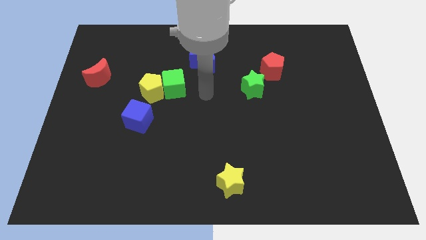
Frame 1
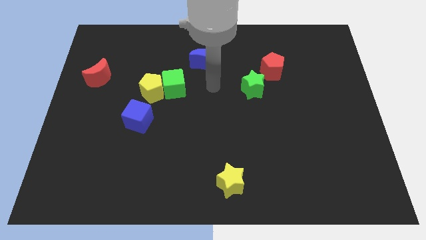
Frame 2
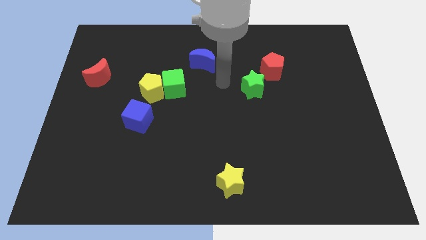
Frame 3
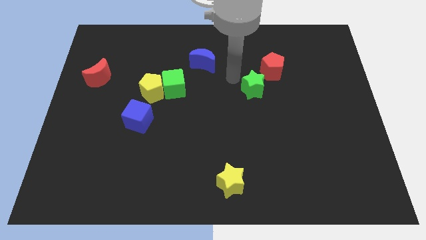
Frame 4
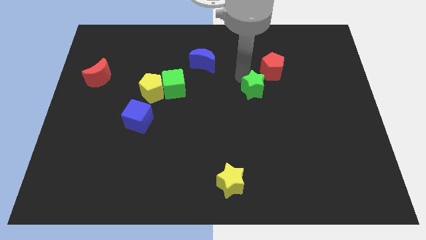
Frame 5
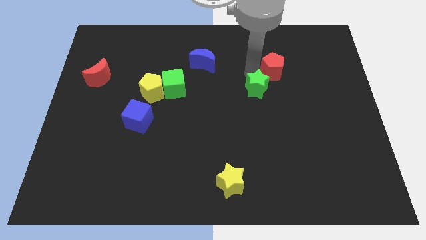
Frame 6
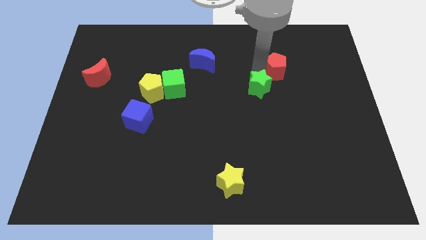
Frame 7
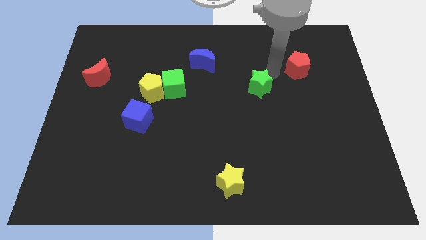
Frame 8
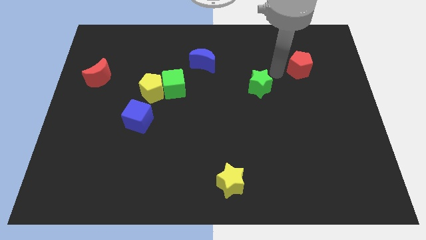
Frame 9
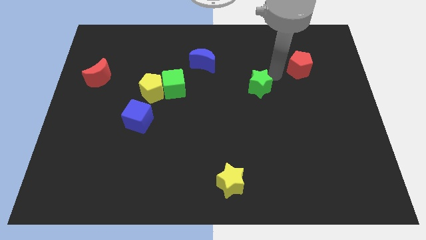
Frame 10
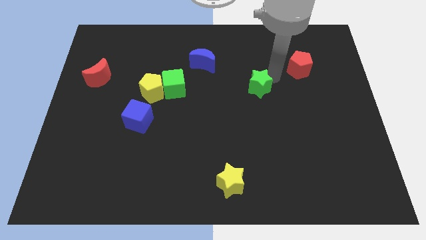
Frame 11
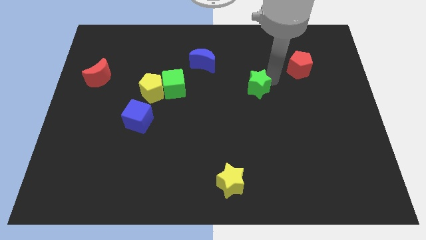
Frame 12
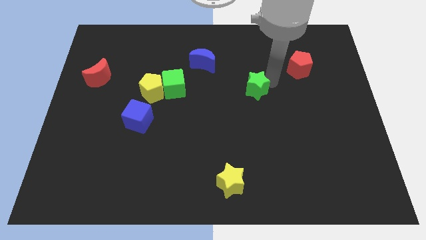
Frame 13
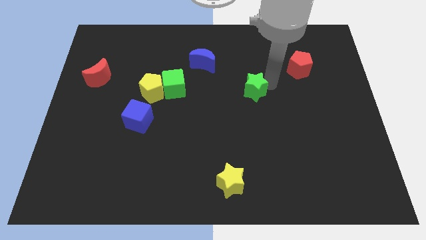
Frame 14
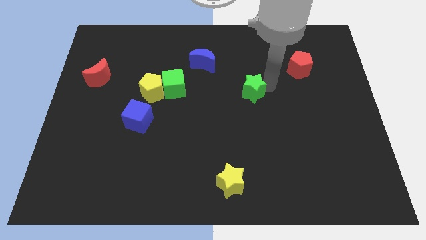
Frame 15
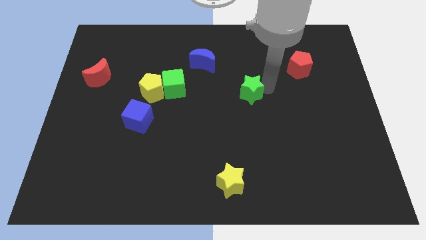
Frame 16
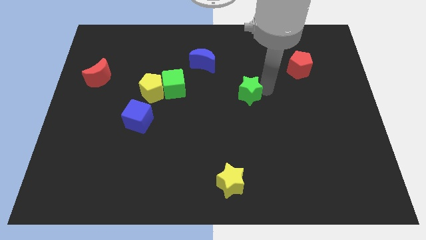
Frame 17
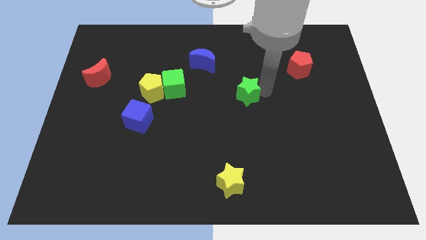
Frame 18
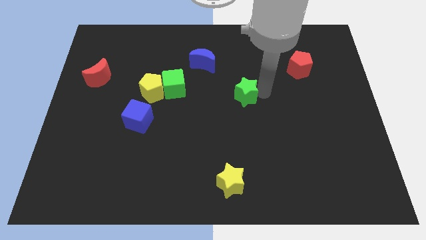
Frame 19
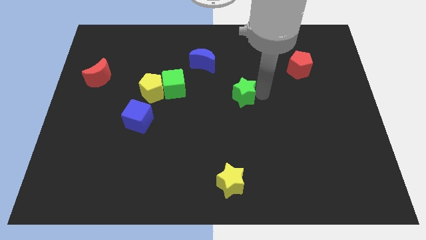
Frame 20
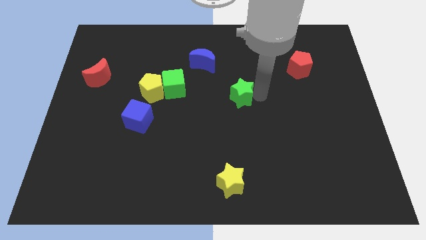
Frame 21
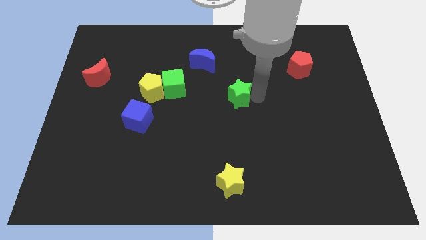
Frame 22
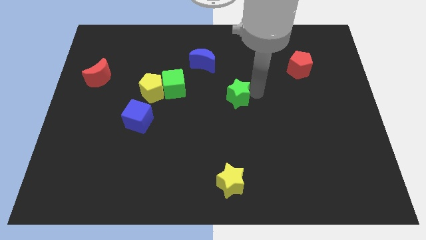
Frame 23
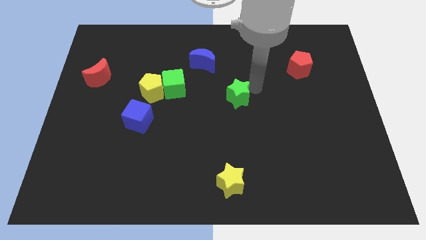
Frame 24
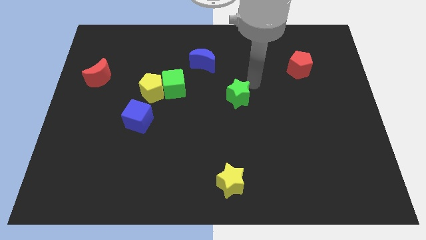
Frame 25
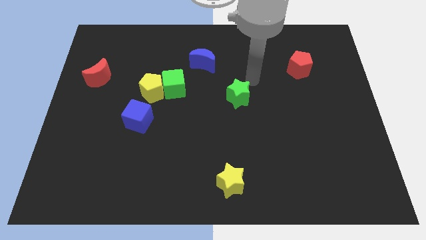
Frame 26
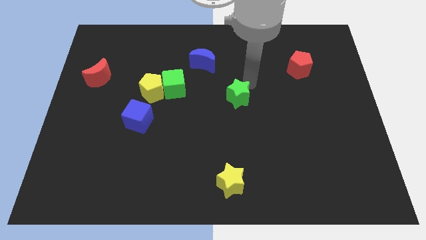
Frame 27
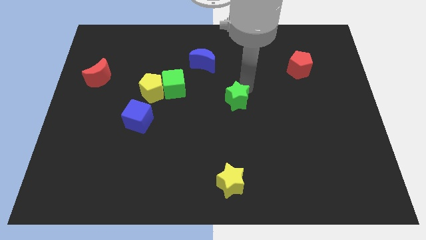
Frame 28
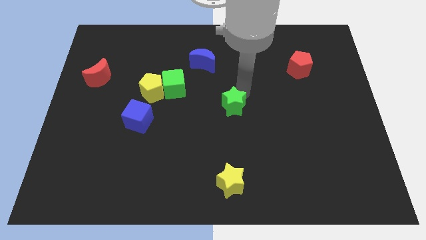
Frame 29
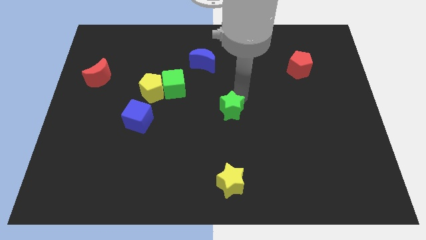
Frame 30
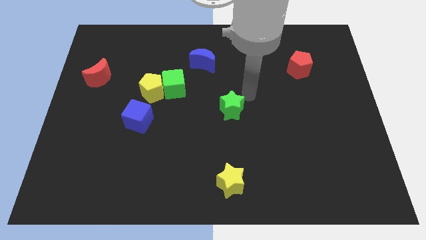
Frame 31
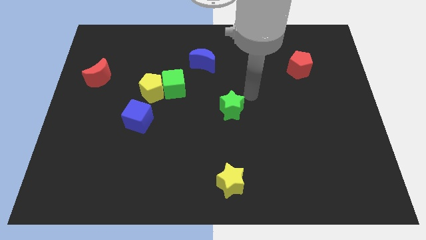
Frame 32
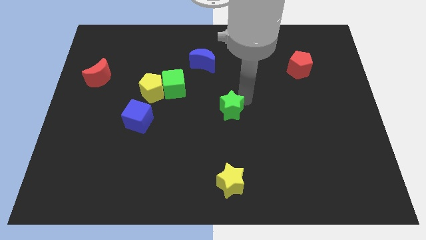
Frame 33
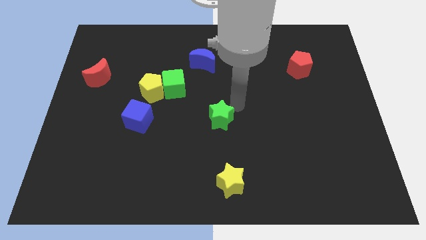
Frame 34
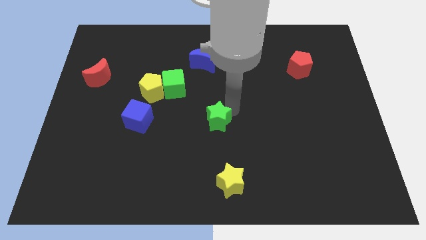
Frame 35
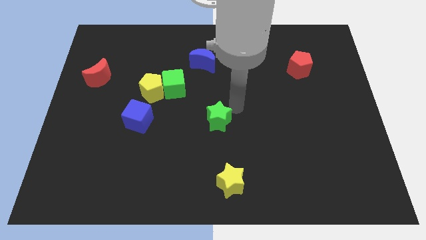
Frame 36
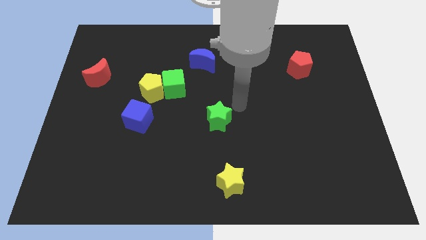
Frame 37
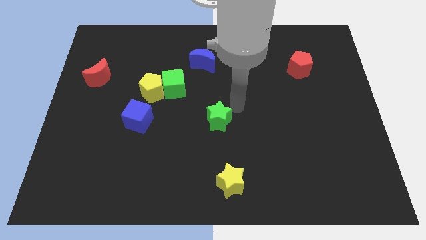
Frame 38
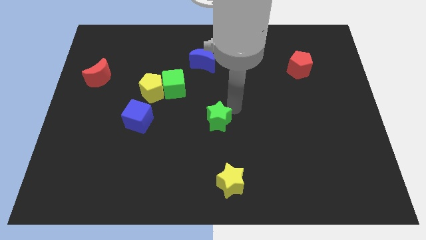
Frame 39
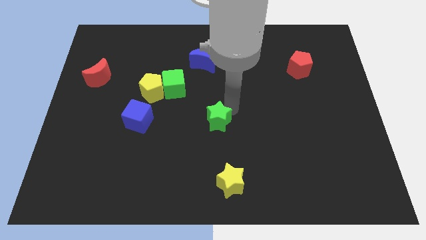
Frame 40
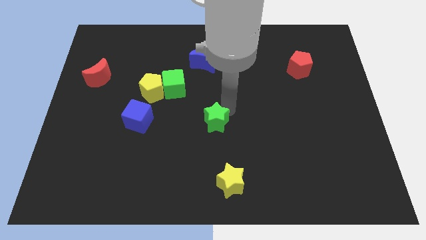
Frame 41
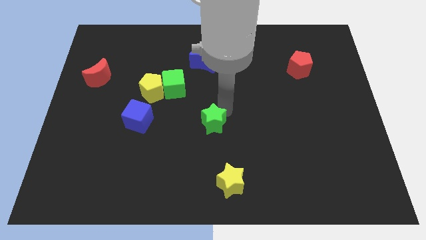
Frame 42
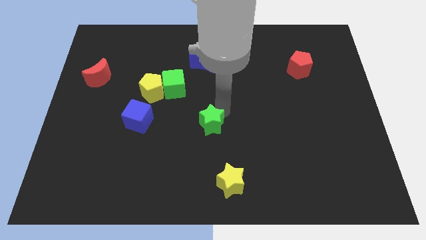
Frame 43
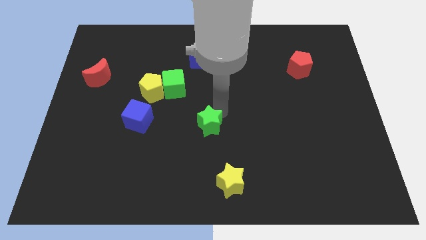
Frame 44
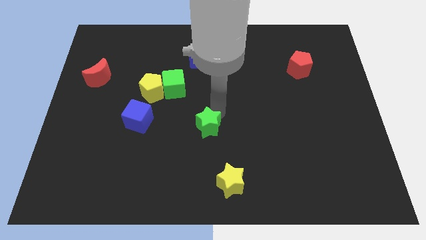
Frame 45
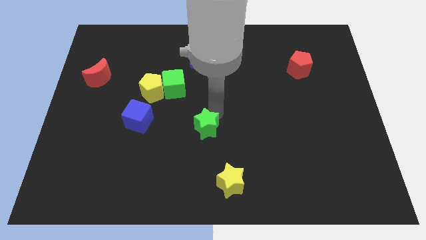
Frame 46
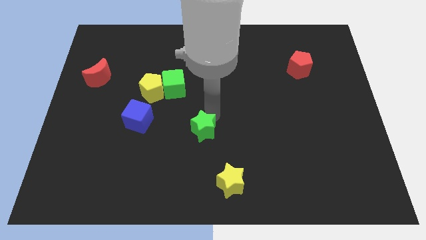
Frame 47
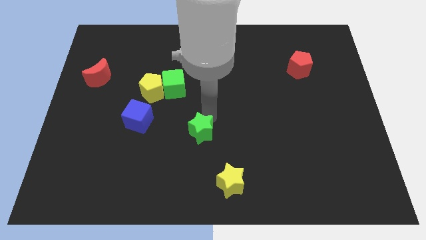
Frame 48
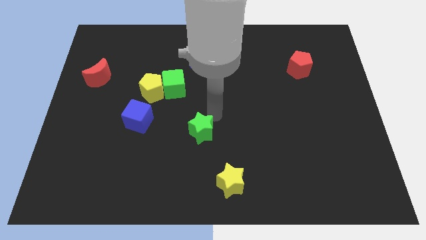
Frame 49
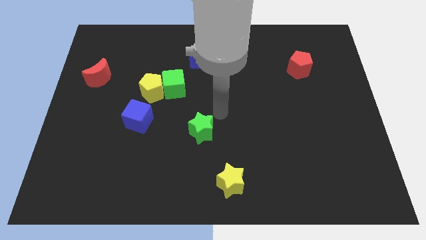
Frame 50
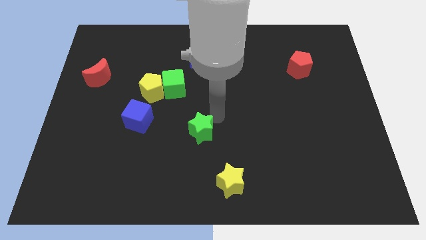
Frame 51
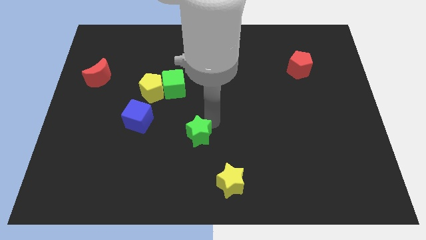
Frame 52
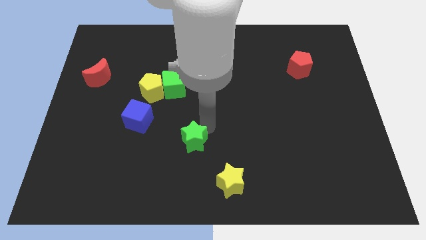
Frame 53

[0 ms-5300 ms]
push the green star downwards and then left

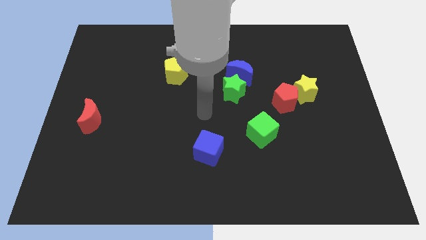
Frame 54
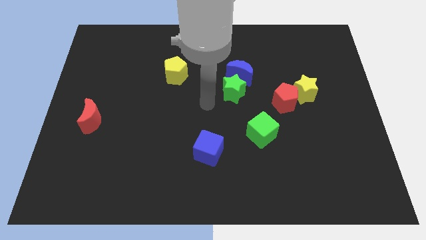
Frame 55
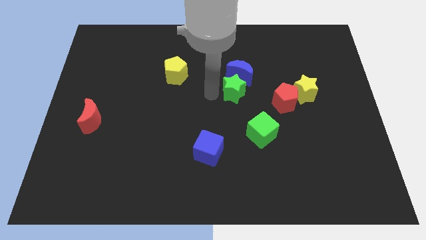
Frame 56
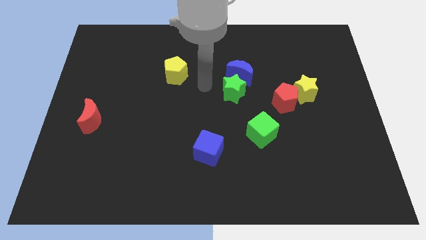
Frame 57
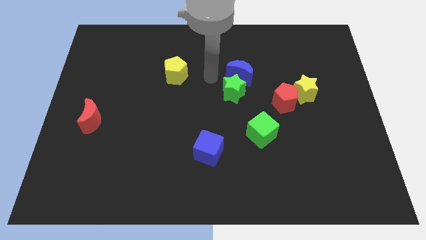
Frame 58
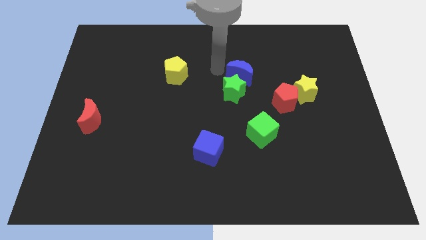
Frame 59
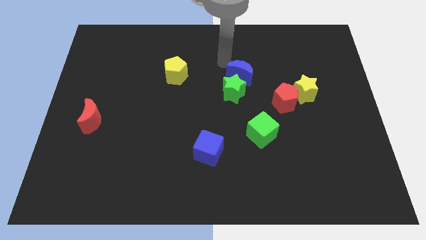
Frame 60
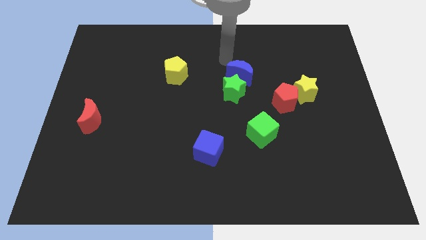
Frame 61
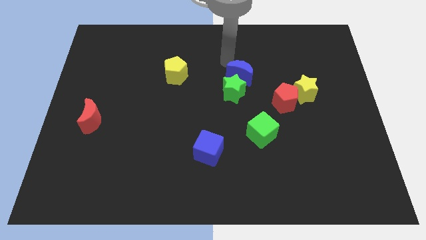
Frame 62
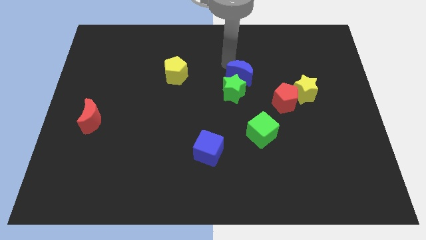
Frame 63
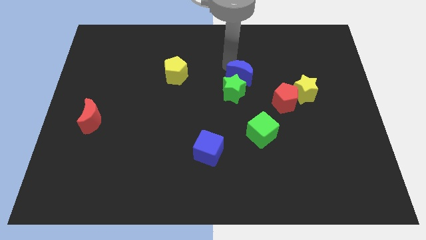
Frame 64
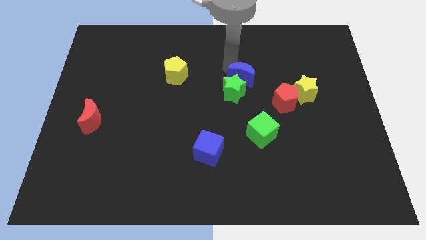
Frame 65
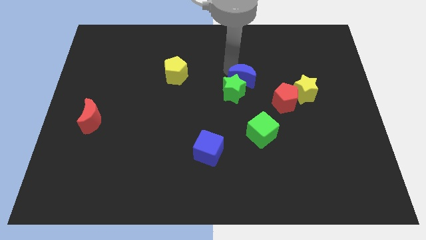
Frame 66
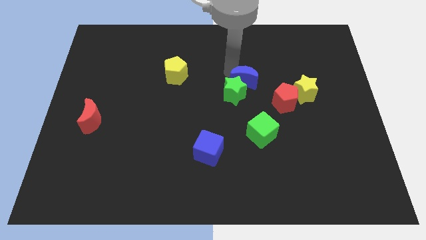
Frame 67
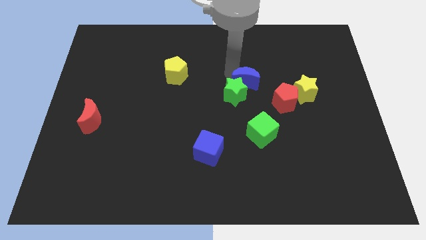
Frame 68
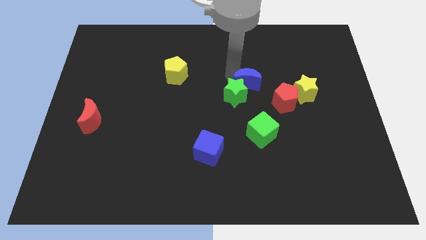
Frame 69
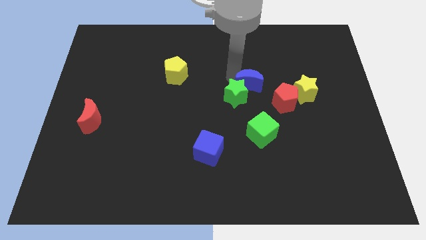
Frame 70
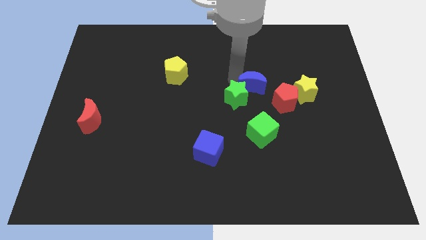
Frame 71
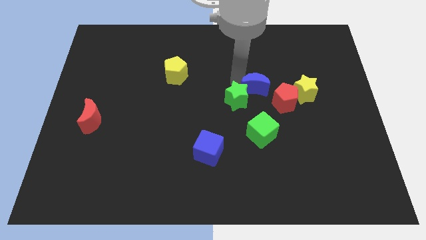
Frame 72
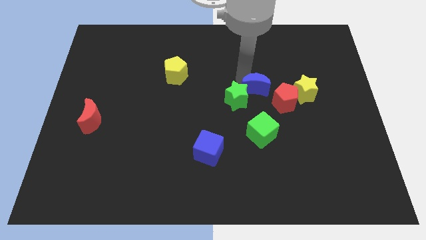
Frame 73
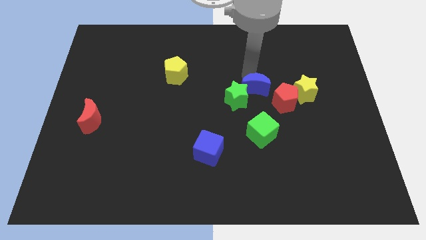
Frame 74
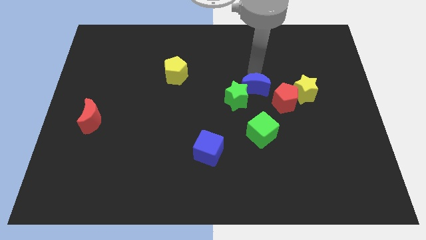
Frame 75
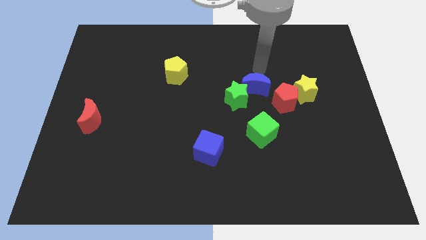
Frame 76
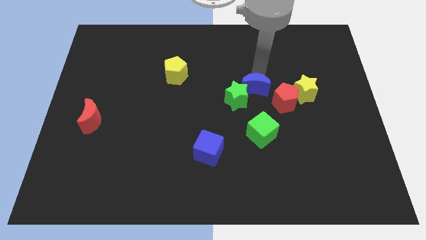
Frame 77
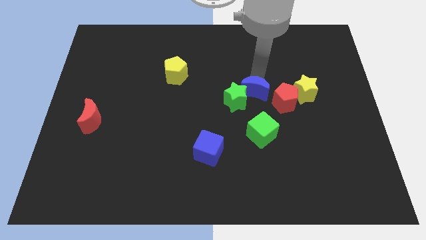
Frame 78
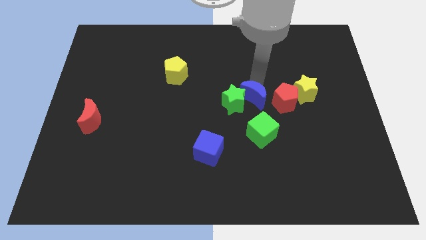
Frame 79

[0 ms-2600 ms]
move the blue moon slightly downwards
